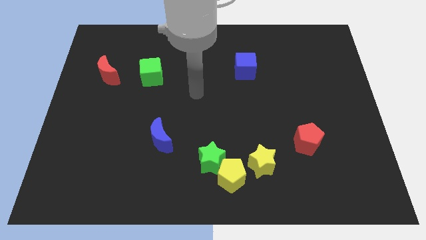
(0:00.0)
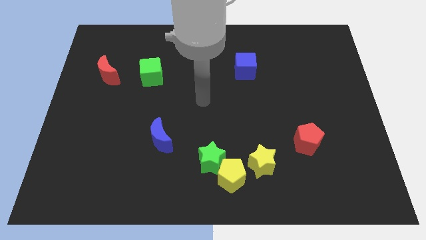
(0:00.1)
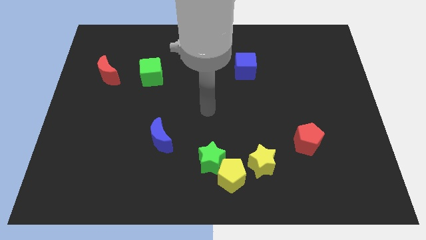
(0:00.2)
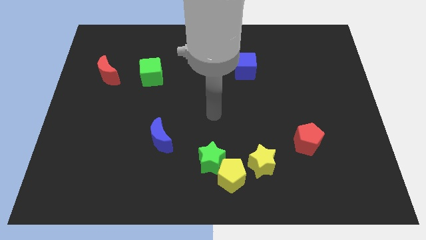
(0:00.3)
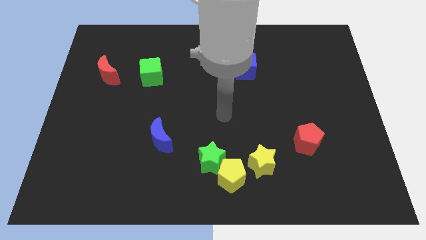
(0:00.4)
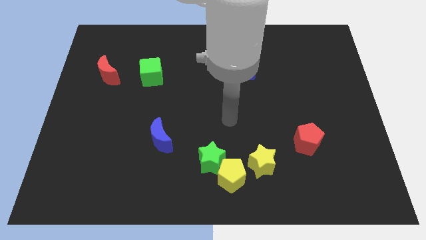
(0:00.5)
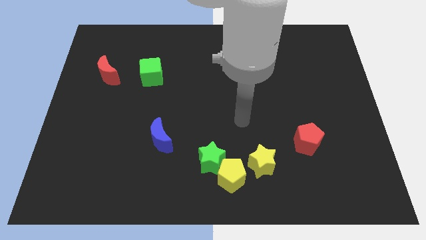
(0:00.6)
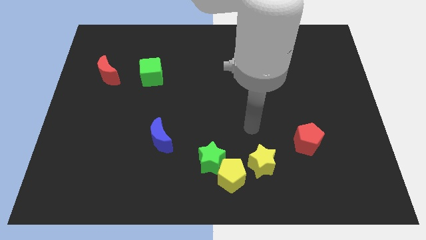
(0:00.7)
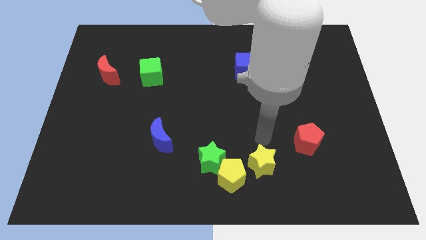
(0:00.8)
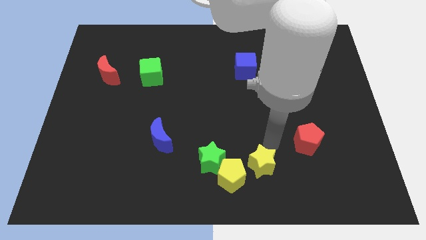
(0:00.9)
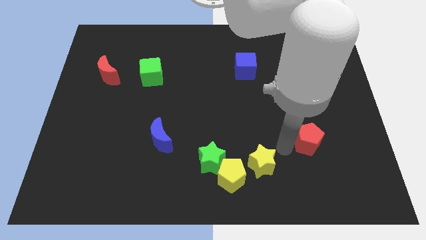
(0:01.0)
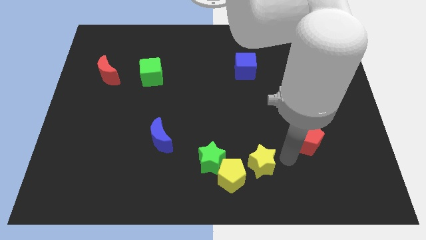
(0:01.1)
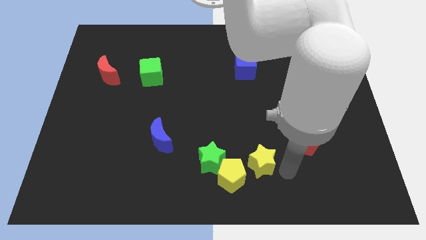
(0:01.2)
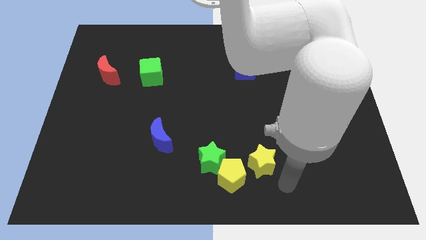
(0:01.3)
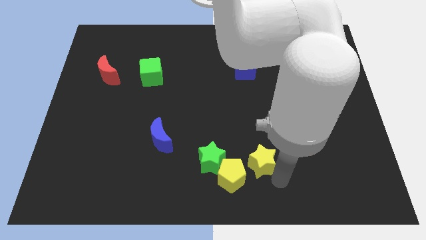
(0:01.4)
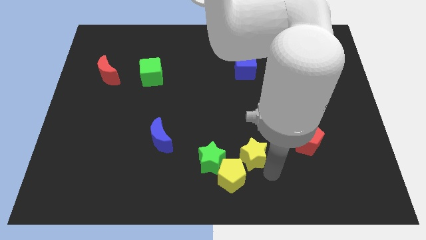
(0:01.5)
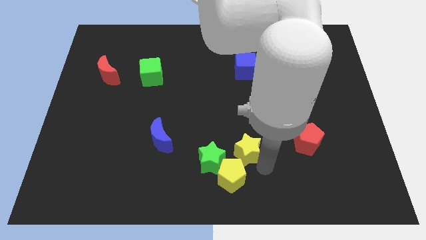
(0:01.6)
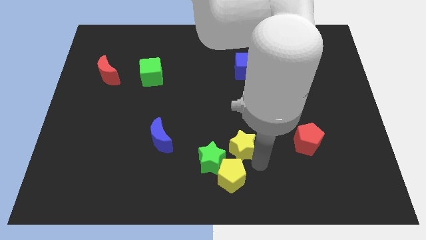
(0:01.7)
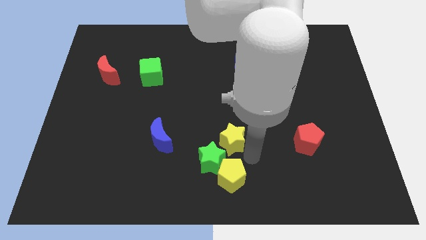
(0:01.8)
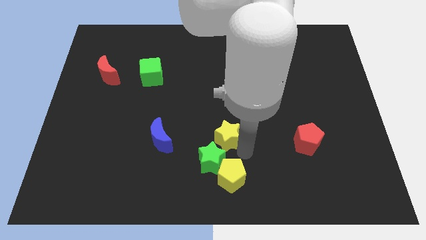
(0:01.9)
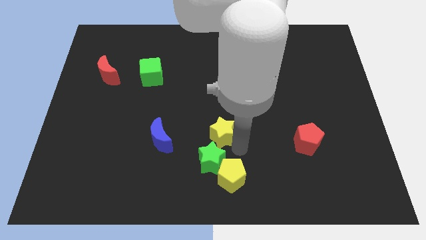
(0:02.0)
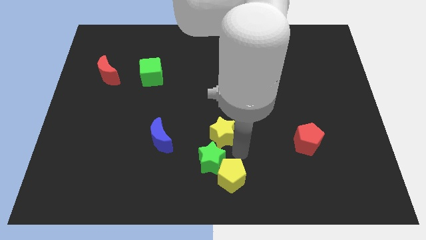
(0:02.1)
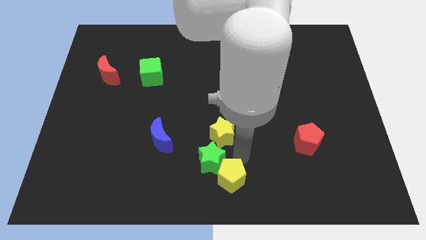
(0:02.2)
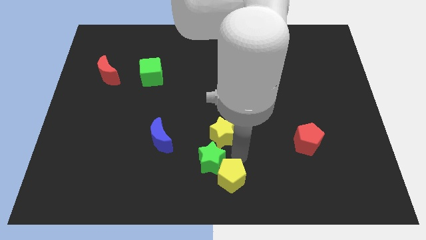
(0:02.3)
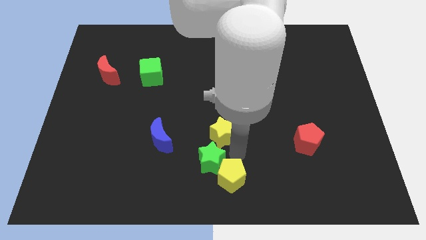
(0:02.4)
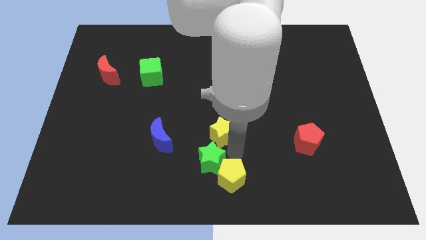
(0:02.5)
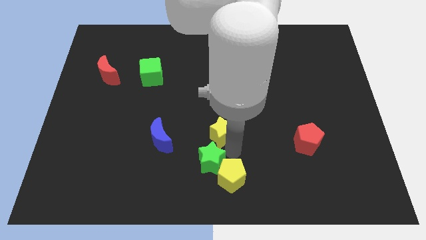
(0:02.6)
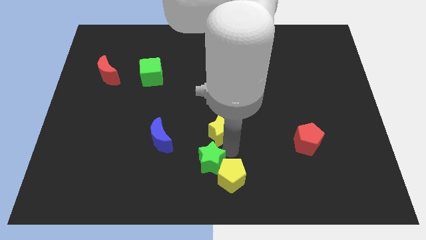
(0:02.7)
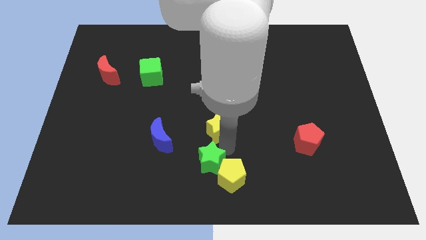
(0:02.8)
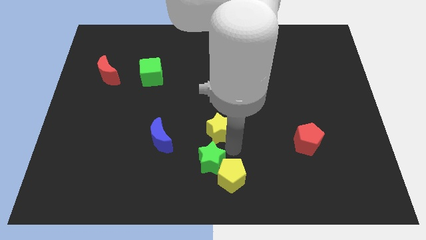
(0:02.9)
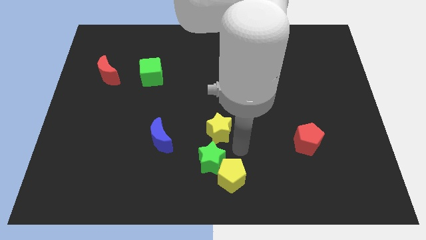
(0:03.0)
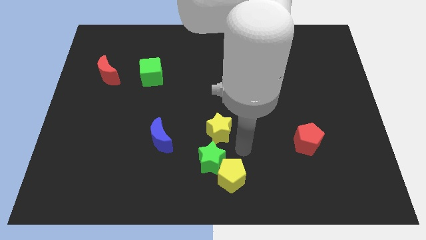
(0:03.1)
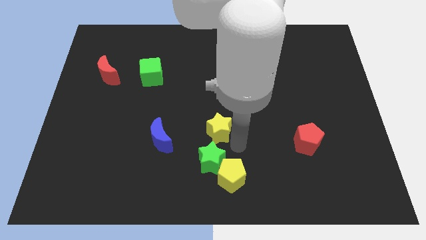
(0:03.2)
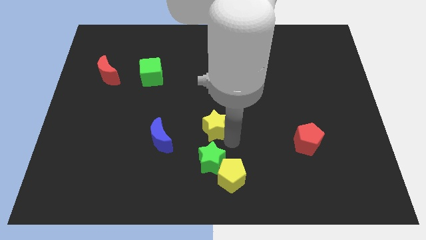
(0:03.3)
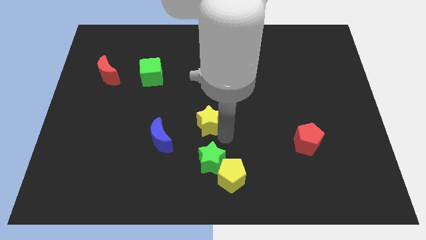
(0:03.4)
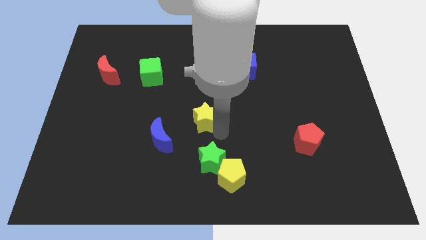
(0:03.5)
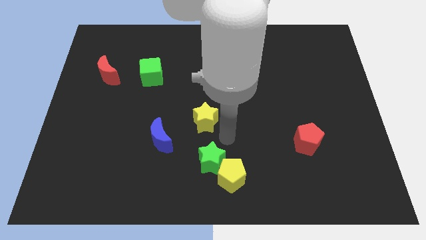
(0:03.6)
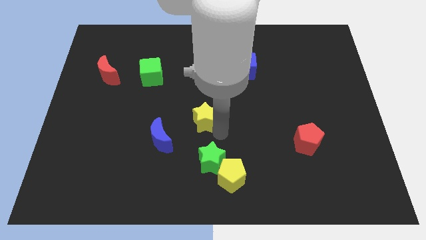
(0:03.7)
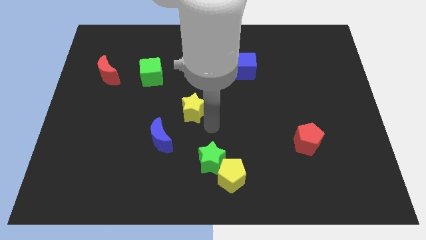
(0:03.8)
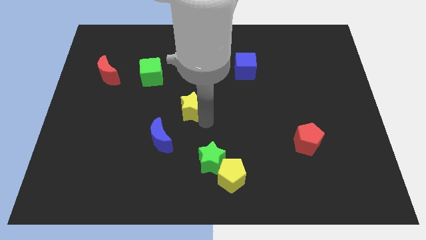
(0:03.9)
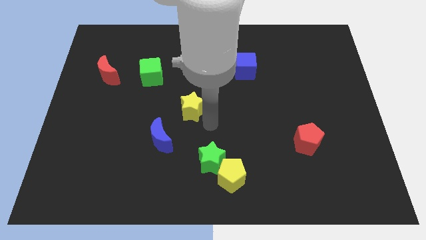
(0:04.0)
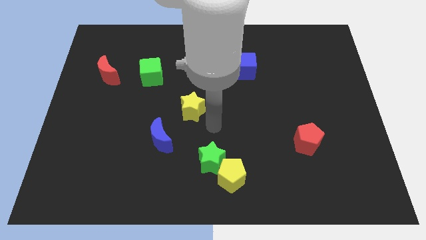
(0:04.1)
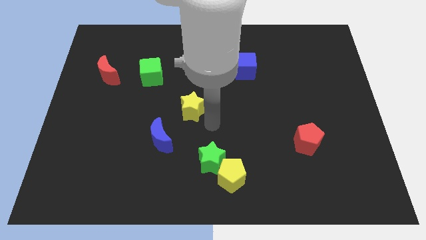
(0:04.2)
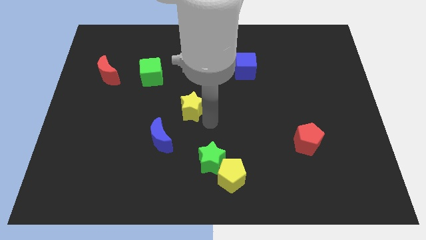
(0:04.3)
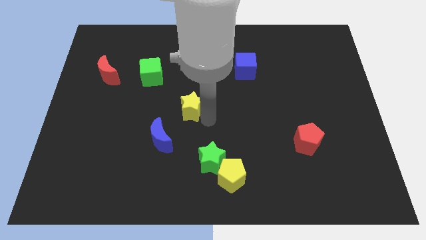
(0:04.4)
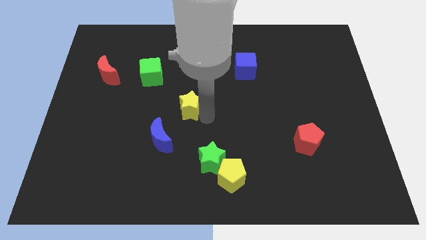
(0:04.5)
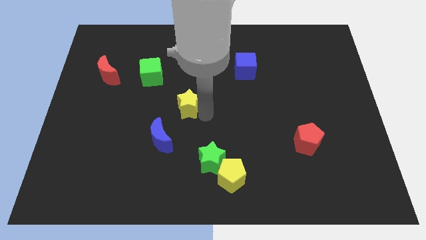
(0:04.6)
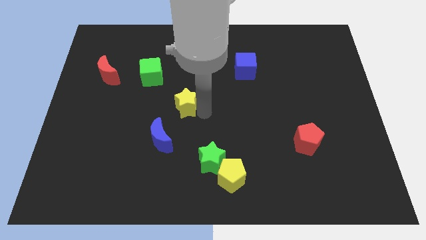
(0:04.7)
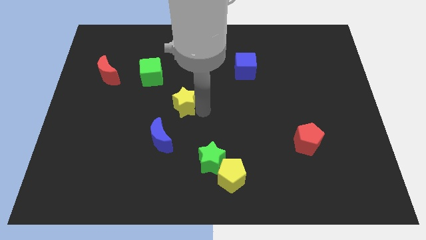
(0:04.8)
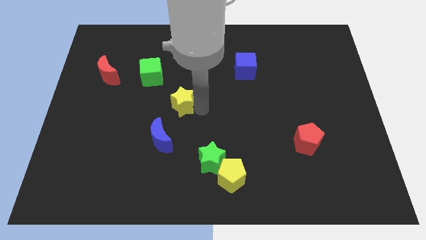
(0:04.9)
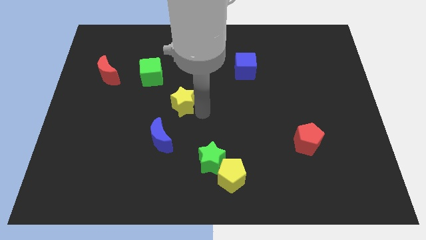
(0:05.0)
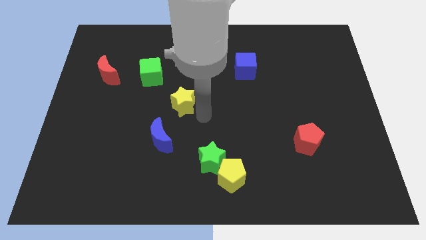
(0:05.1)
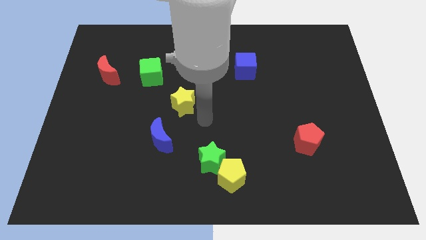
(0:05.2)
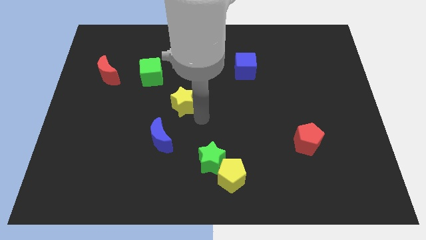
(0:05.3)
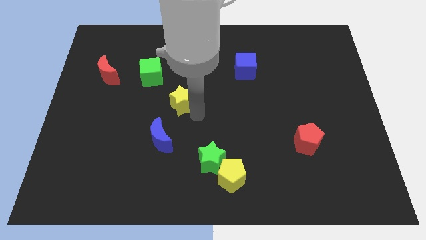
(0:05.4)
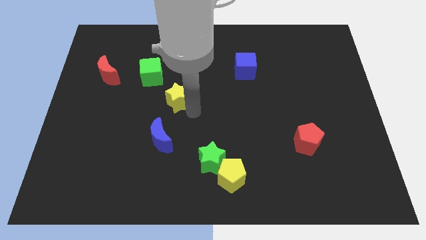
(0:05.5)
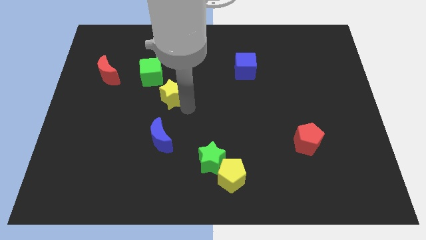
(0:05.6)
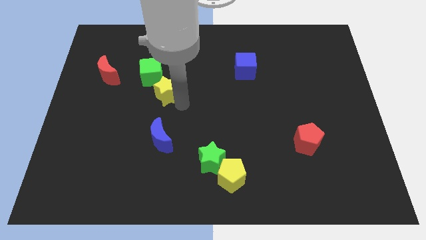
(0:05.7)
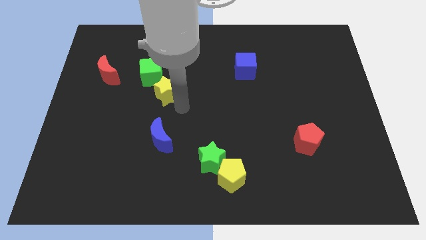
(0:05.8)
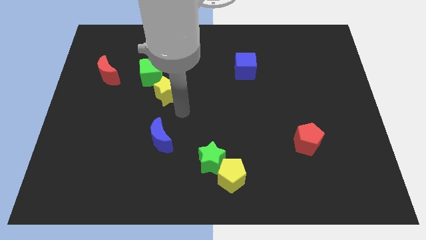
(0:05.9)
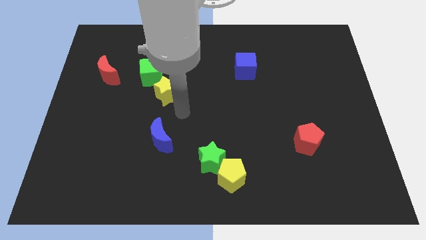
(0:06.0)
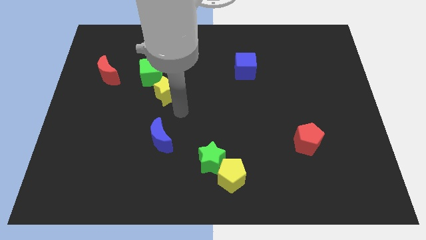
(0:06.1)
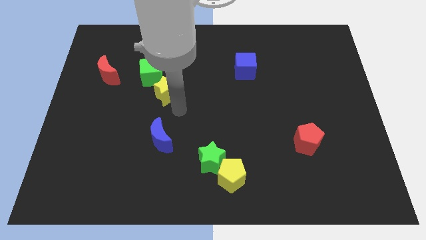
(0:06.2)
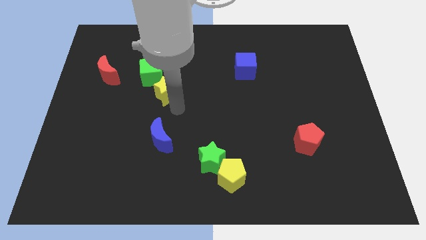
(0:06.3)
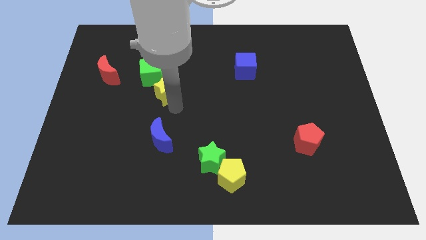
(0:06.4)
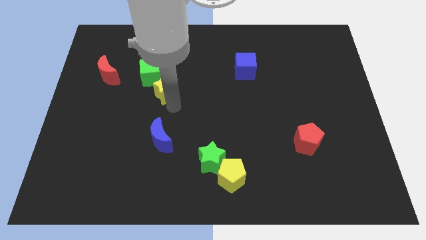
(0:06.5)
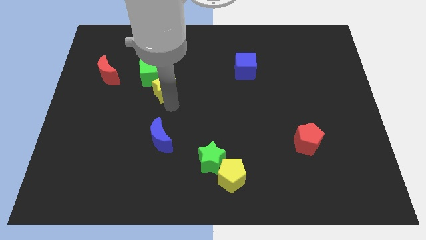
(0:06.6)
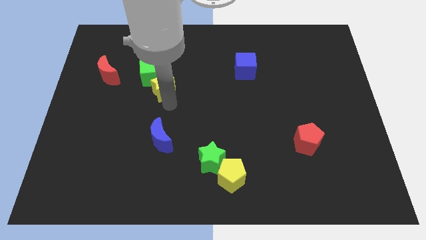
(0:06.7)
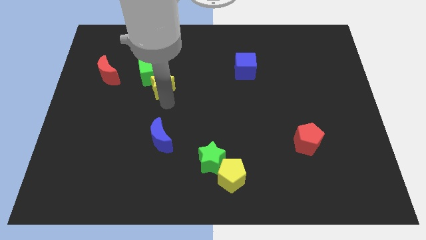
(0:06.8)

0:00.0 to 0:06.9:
move the yellow star next to the green cube
